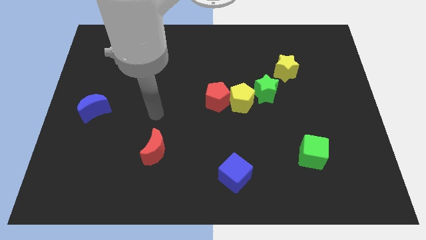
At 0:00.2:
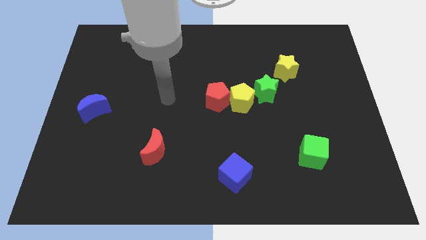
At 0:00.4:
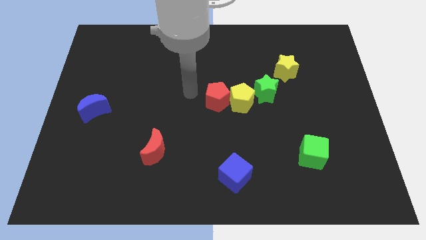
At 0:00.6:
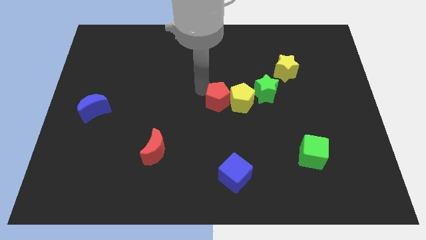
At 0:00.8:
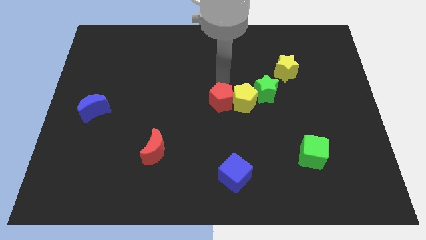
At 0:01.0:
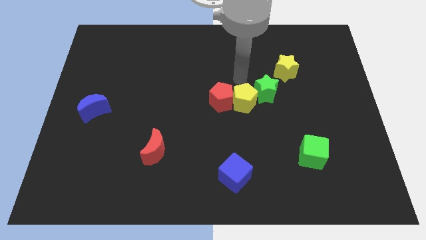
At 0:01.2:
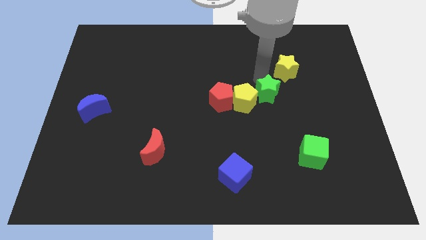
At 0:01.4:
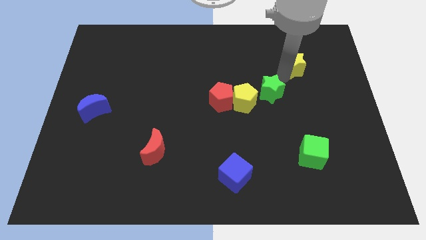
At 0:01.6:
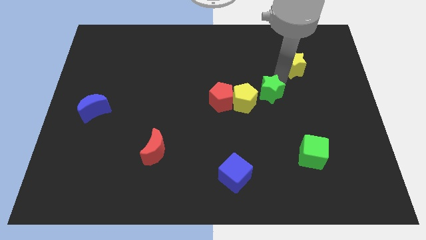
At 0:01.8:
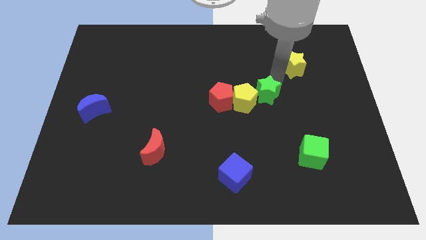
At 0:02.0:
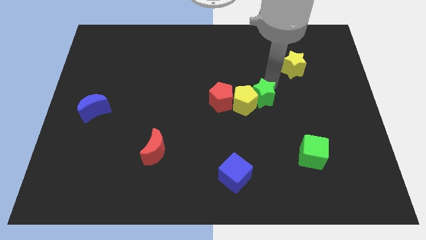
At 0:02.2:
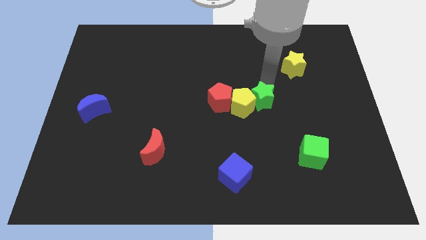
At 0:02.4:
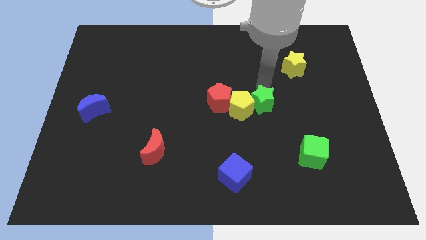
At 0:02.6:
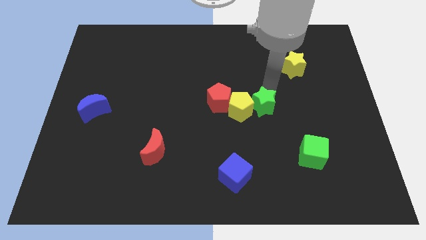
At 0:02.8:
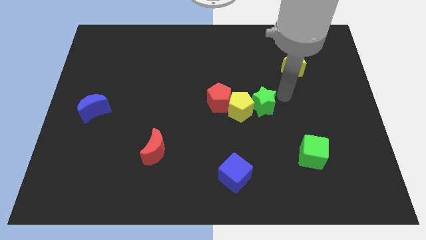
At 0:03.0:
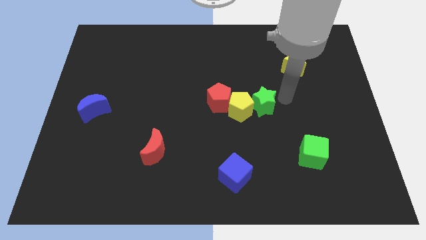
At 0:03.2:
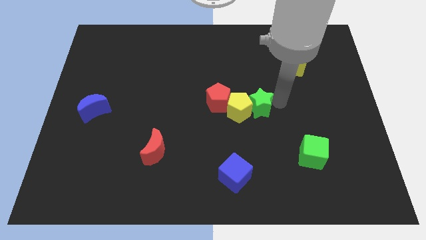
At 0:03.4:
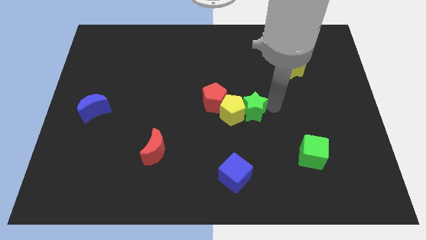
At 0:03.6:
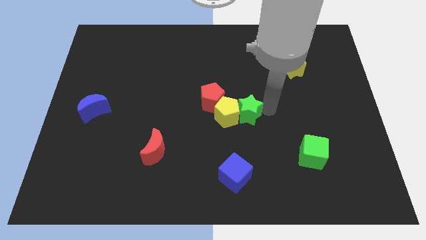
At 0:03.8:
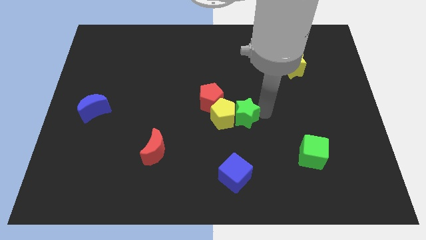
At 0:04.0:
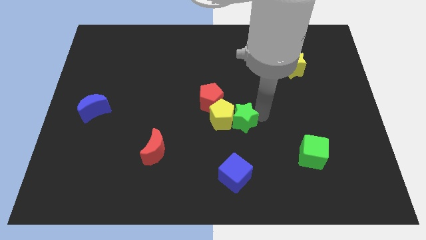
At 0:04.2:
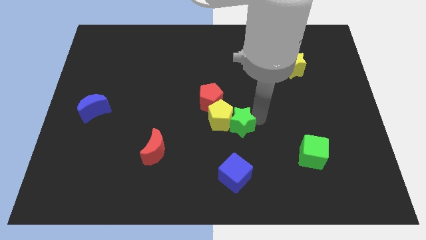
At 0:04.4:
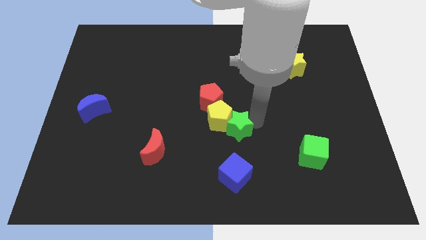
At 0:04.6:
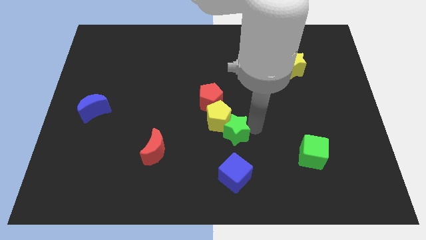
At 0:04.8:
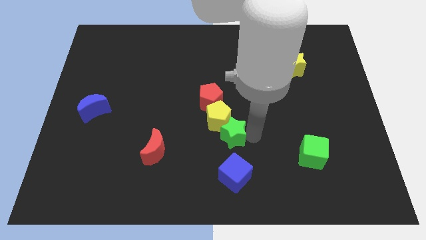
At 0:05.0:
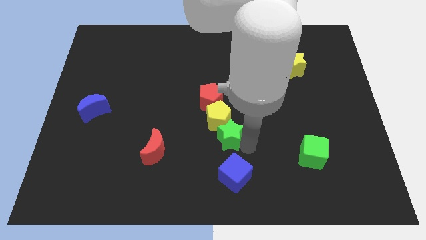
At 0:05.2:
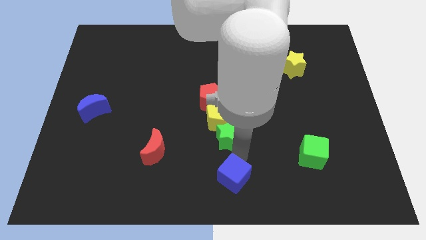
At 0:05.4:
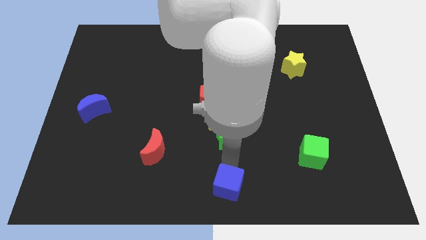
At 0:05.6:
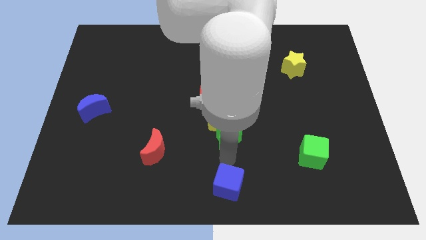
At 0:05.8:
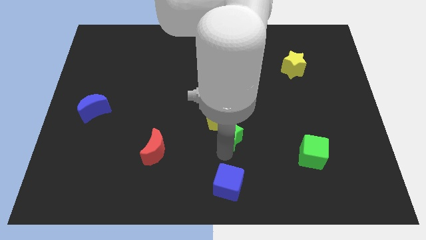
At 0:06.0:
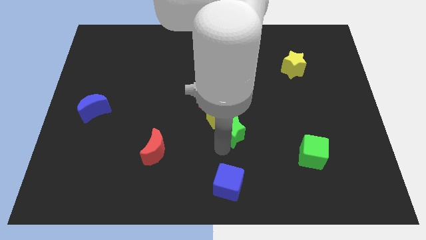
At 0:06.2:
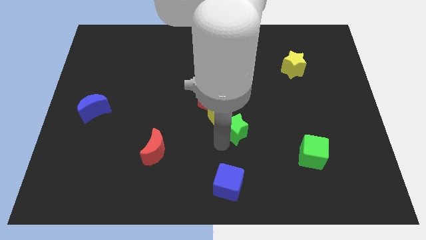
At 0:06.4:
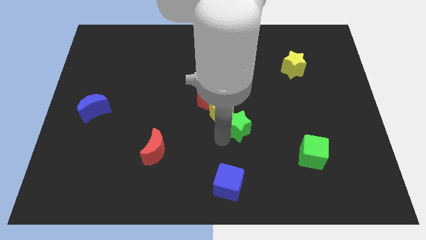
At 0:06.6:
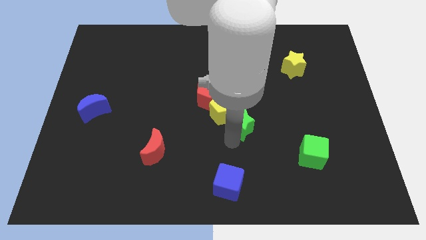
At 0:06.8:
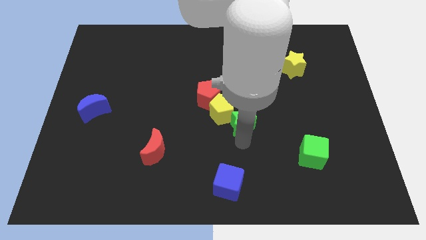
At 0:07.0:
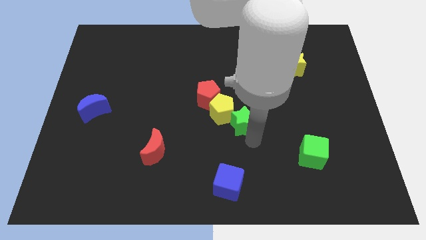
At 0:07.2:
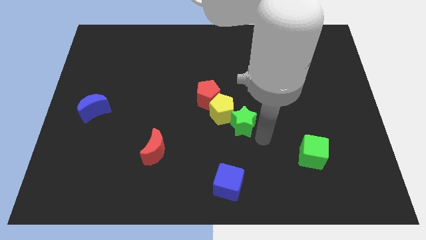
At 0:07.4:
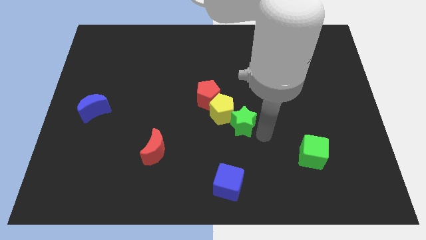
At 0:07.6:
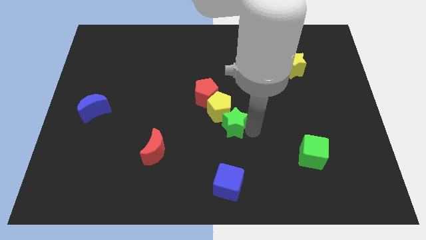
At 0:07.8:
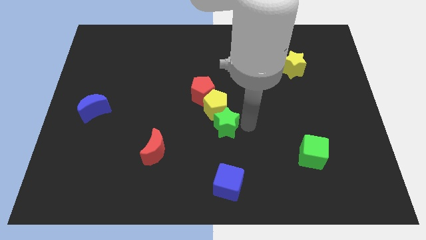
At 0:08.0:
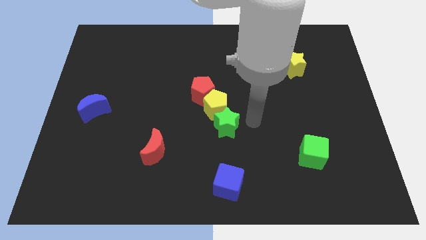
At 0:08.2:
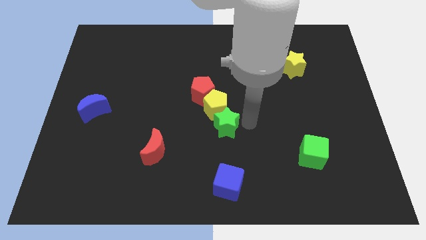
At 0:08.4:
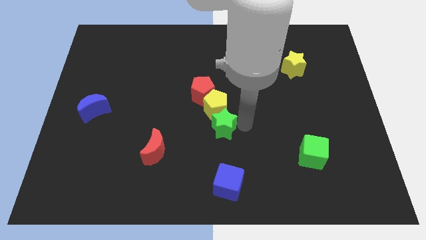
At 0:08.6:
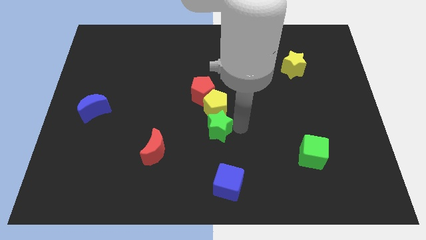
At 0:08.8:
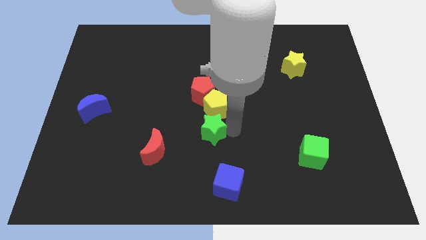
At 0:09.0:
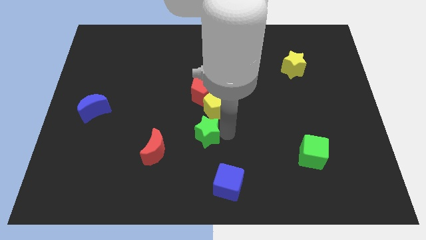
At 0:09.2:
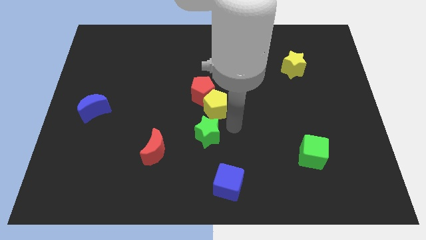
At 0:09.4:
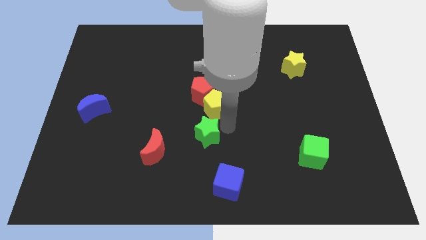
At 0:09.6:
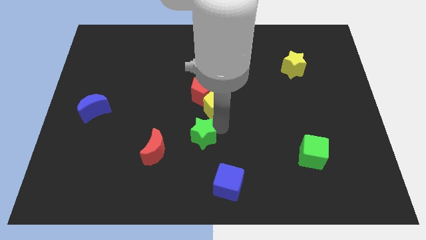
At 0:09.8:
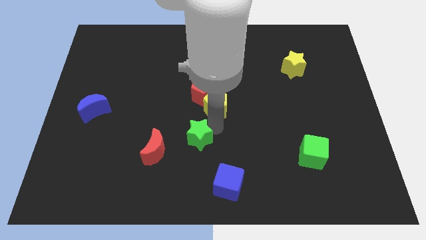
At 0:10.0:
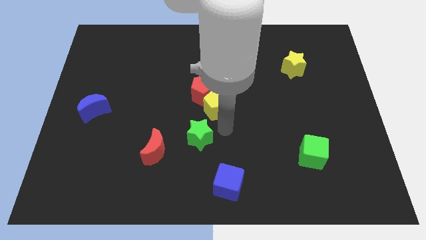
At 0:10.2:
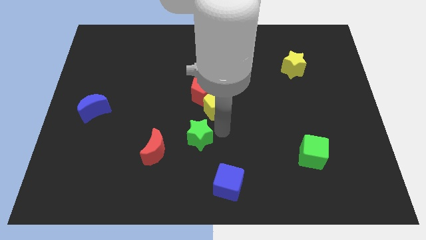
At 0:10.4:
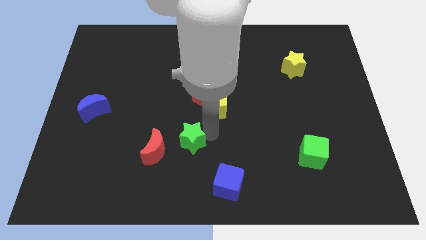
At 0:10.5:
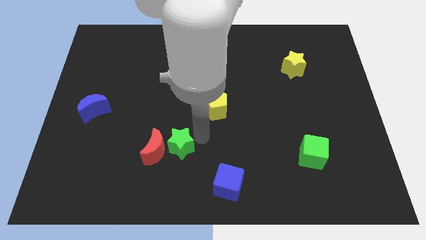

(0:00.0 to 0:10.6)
put the green star towards the red moon

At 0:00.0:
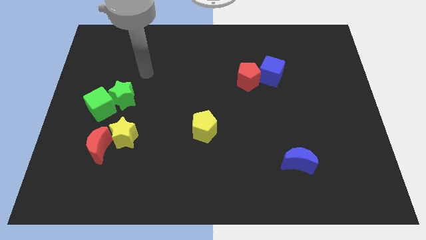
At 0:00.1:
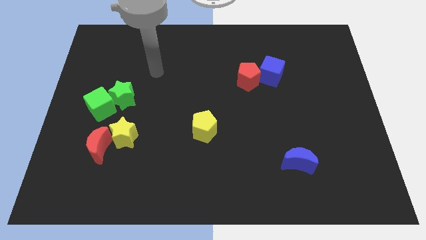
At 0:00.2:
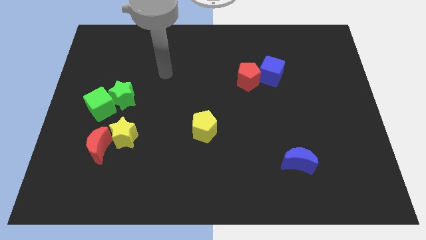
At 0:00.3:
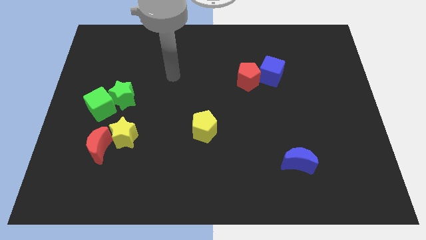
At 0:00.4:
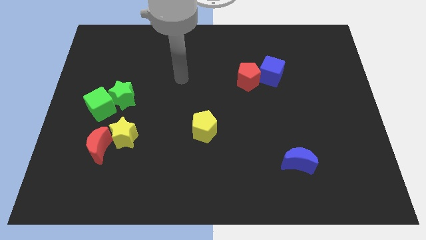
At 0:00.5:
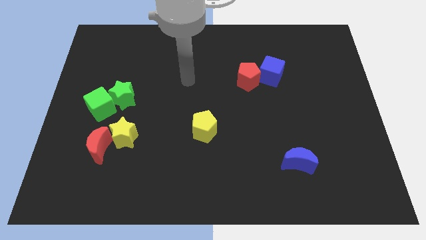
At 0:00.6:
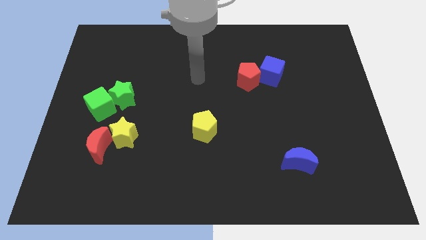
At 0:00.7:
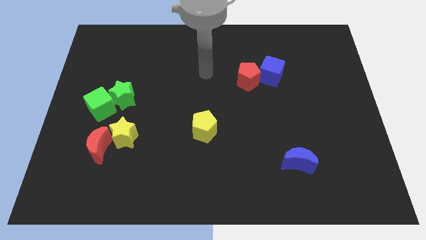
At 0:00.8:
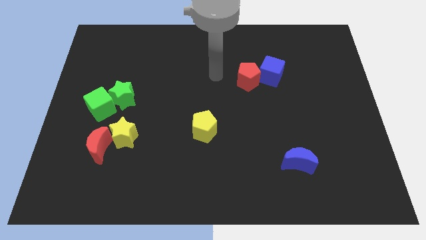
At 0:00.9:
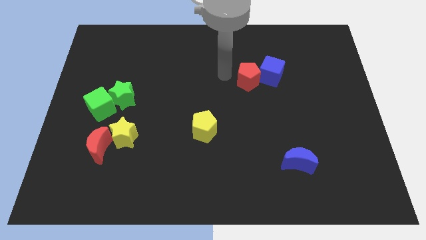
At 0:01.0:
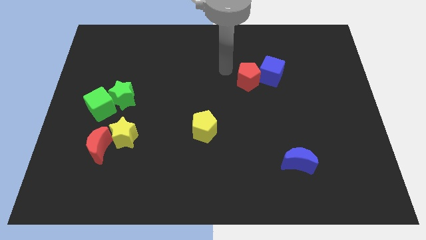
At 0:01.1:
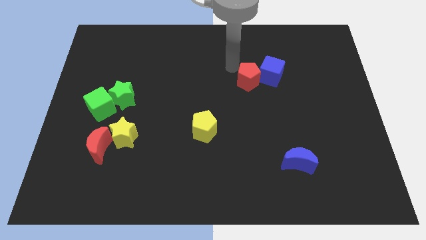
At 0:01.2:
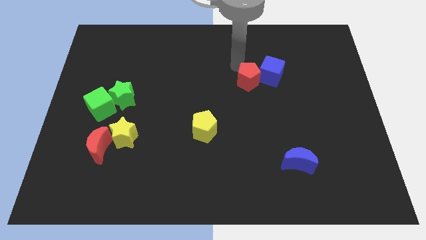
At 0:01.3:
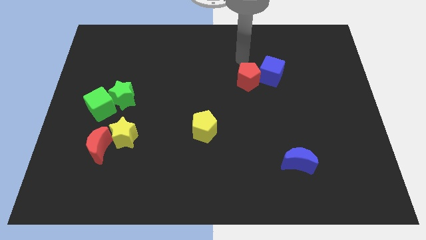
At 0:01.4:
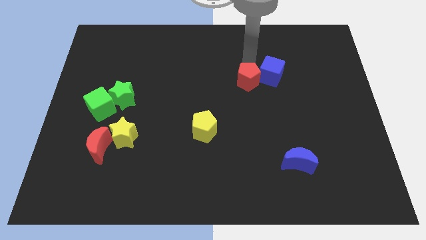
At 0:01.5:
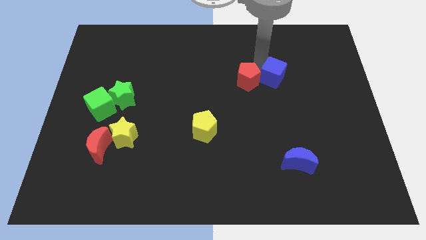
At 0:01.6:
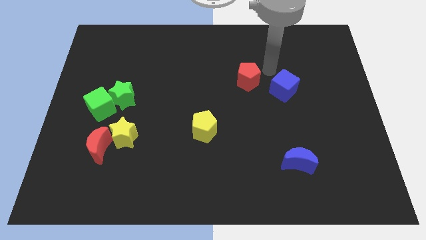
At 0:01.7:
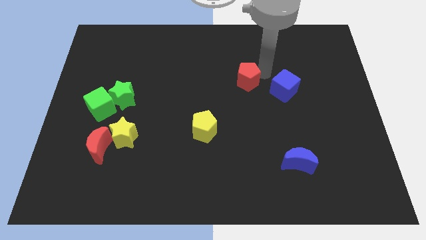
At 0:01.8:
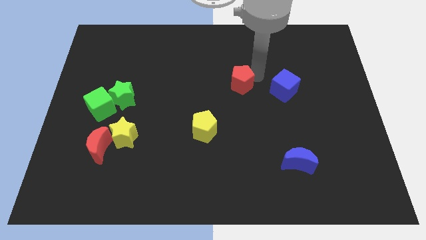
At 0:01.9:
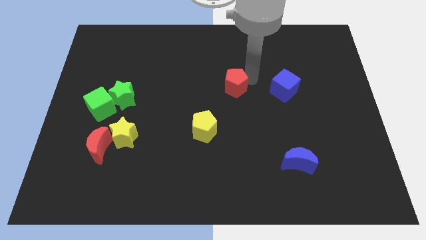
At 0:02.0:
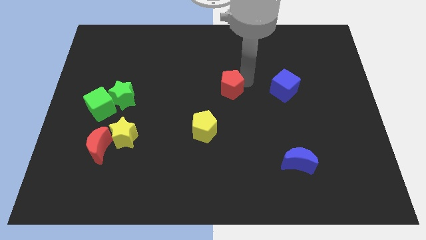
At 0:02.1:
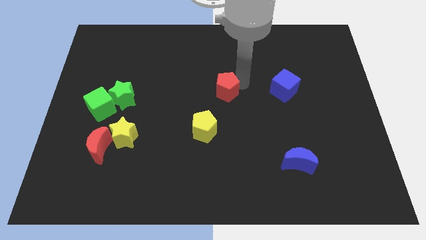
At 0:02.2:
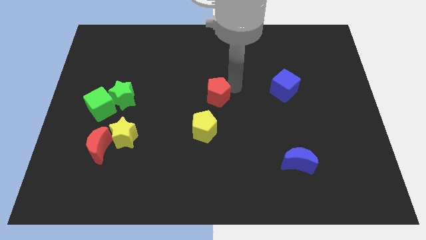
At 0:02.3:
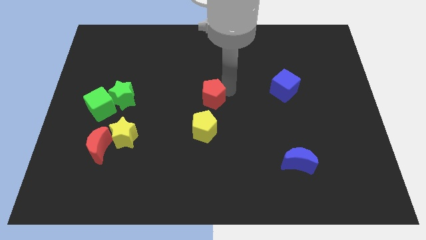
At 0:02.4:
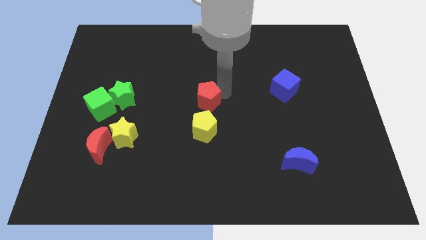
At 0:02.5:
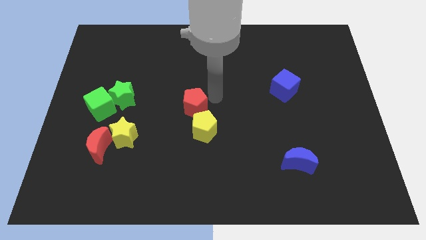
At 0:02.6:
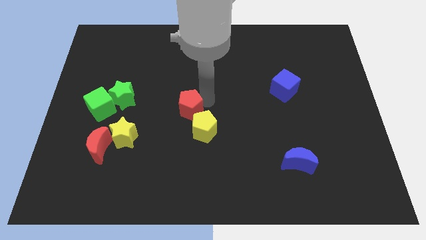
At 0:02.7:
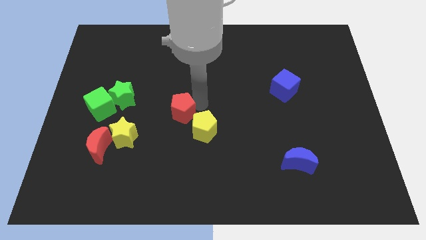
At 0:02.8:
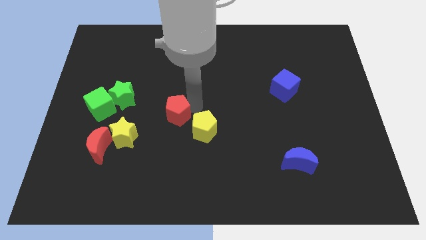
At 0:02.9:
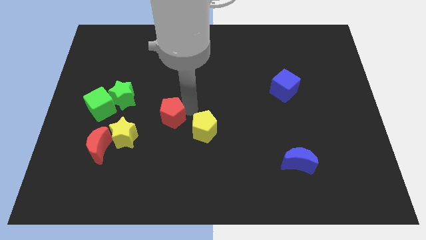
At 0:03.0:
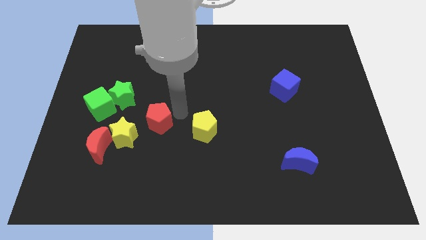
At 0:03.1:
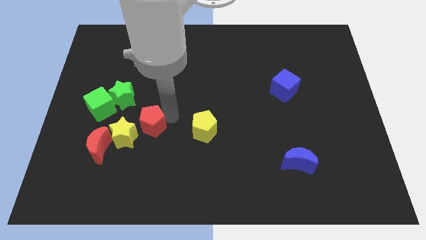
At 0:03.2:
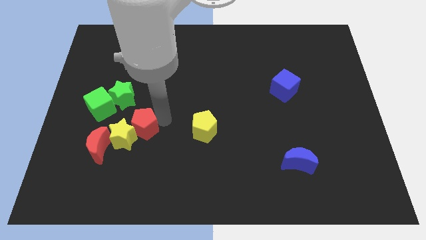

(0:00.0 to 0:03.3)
slide the red pentagon to the yellow star
